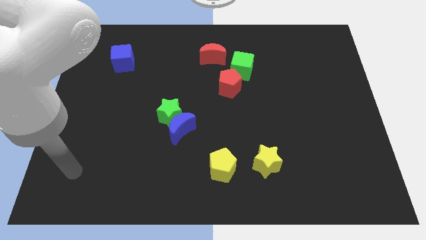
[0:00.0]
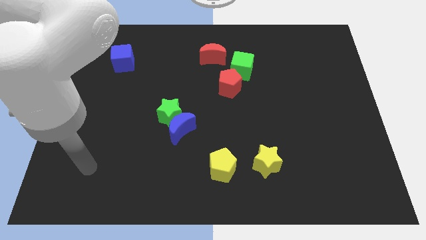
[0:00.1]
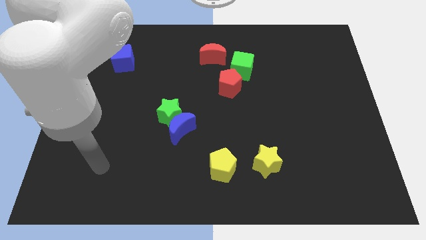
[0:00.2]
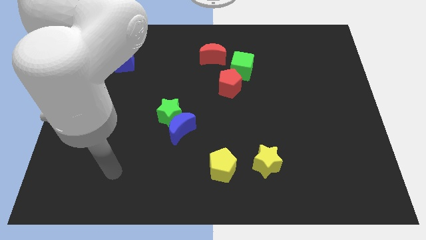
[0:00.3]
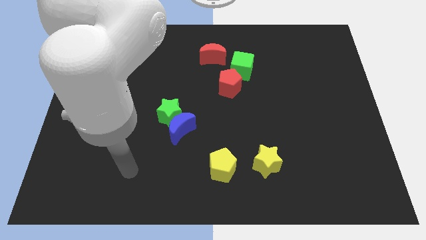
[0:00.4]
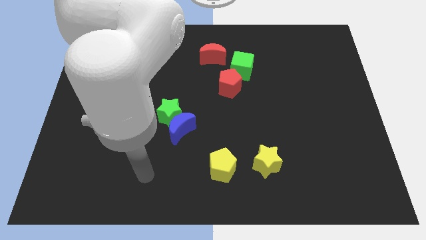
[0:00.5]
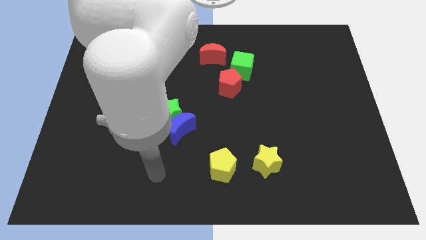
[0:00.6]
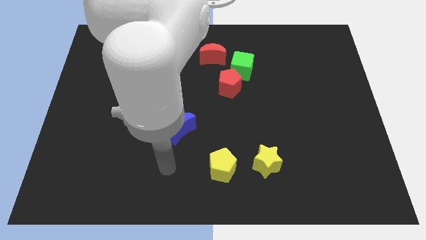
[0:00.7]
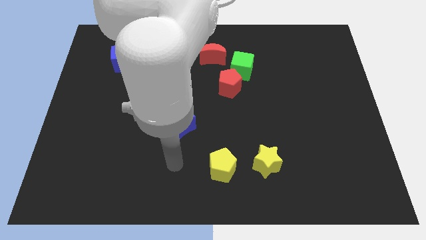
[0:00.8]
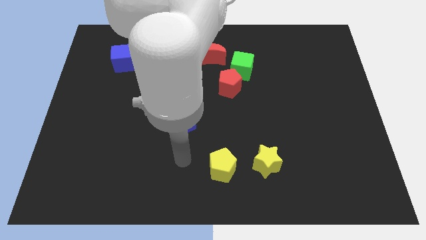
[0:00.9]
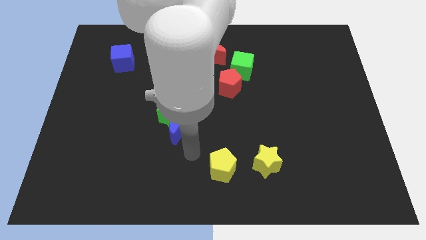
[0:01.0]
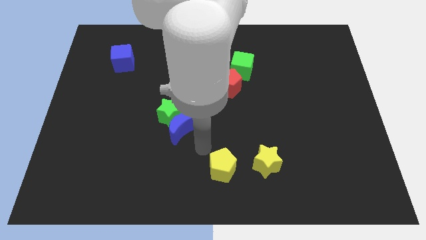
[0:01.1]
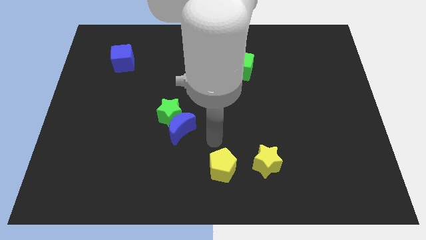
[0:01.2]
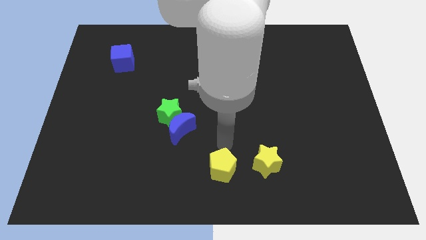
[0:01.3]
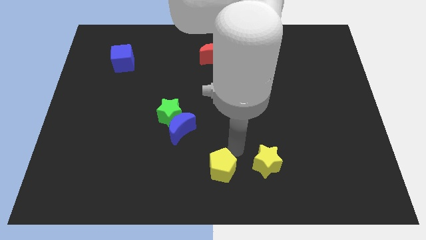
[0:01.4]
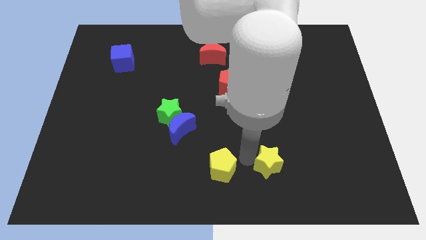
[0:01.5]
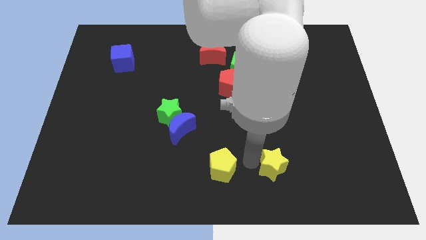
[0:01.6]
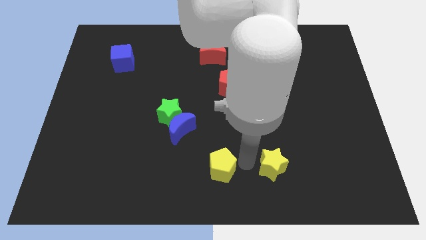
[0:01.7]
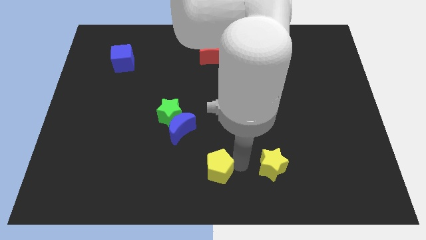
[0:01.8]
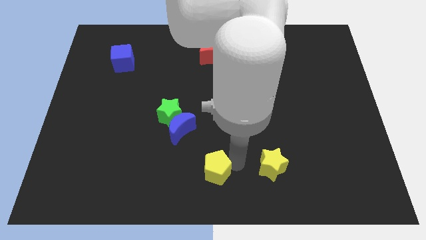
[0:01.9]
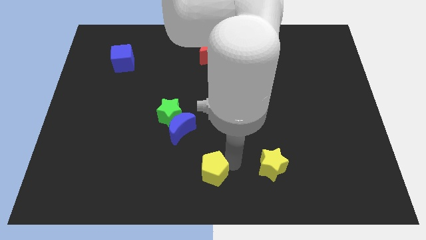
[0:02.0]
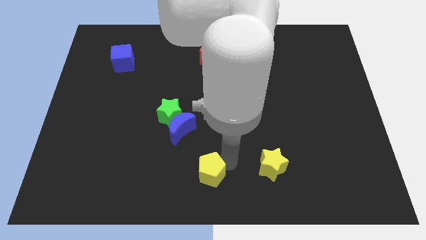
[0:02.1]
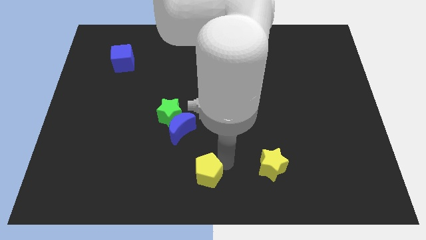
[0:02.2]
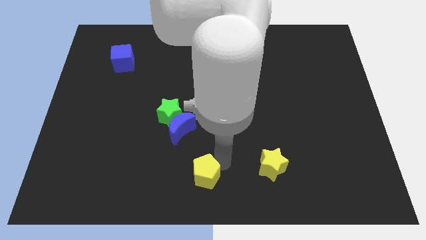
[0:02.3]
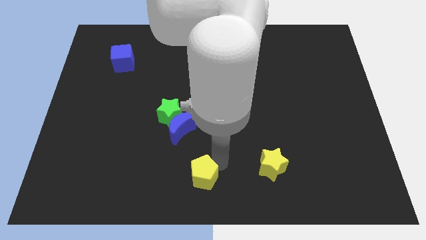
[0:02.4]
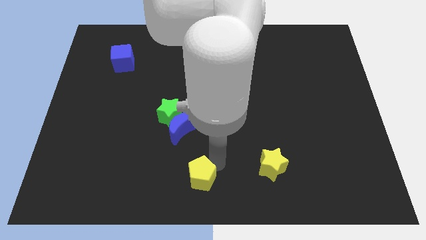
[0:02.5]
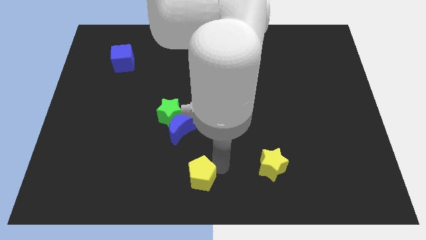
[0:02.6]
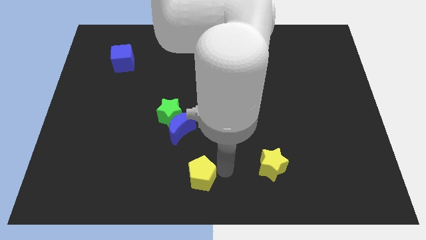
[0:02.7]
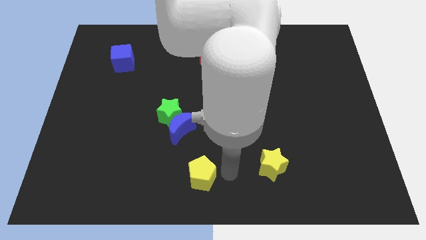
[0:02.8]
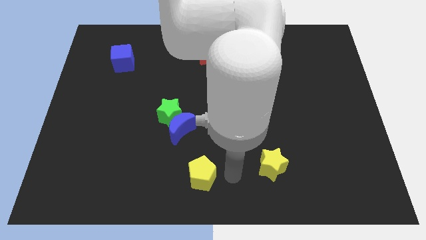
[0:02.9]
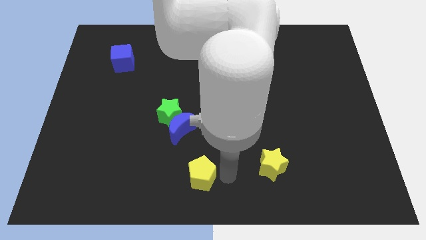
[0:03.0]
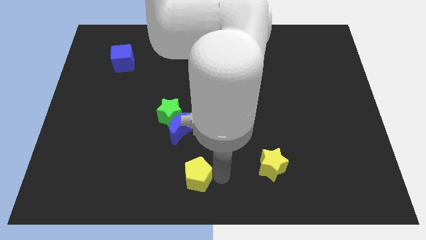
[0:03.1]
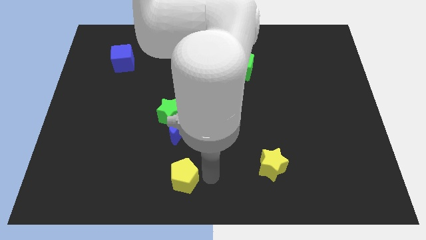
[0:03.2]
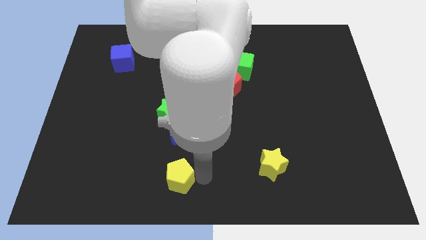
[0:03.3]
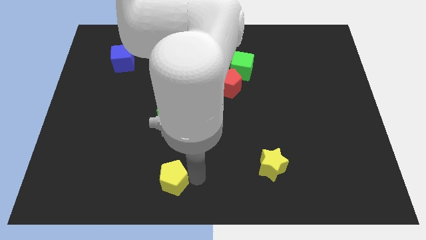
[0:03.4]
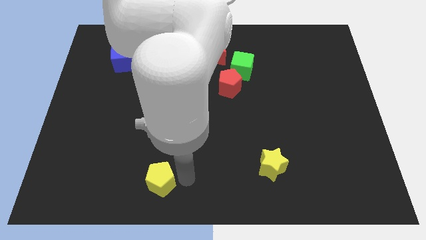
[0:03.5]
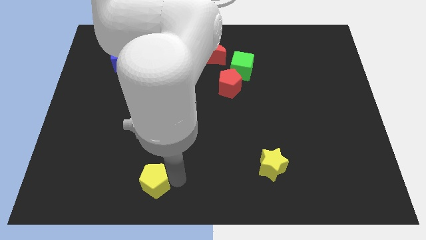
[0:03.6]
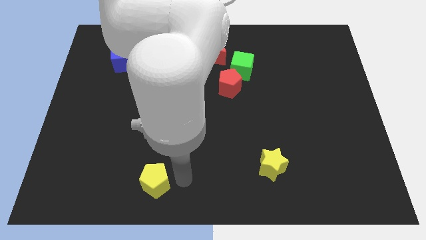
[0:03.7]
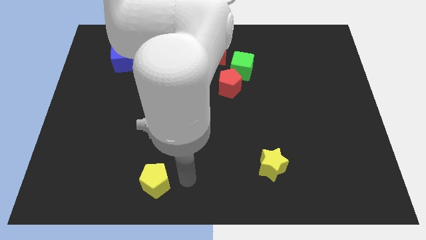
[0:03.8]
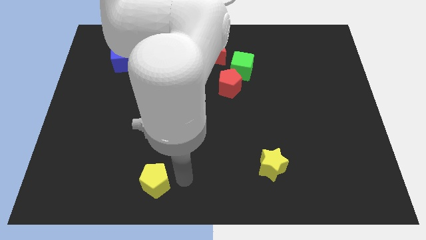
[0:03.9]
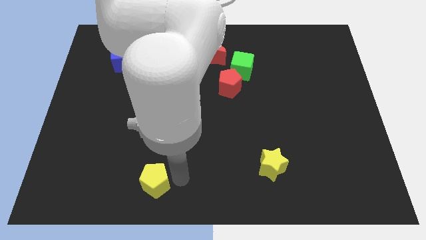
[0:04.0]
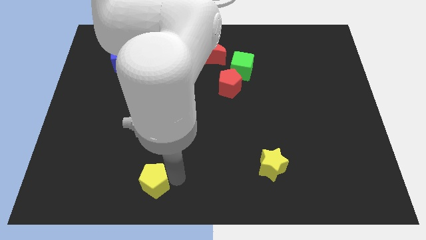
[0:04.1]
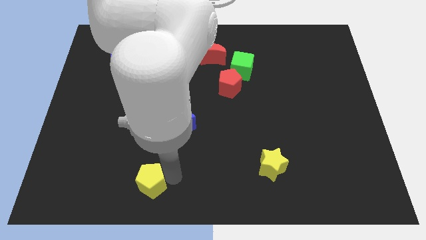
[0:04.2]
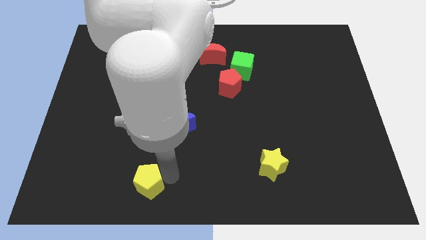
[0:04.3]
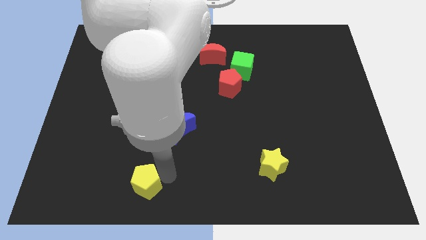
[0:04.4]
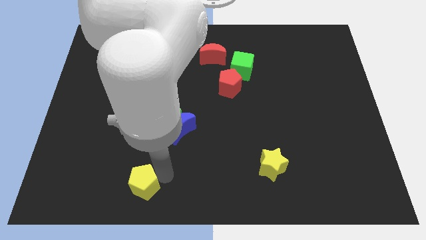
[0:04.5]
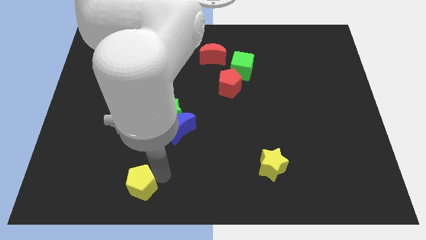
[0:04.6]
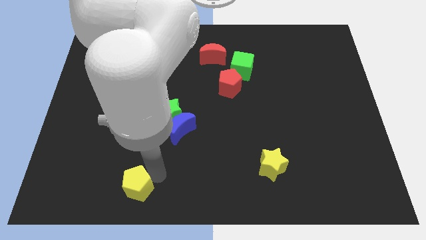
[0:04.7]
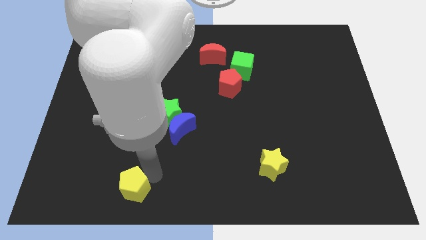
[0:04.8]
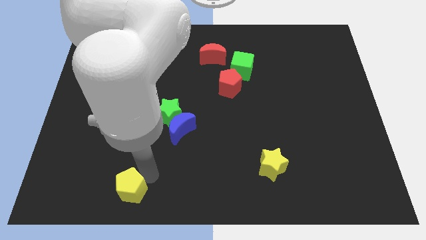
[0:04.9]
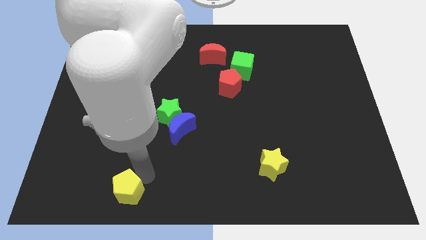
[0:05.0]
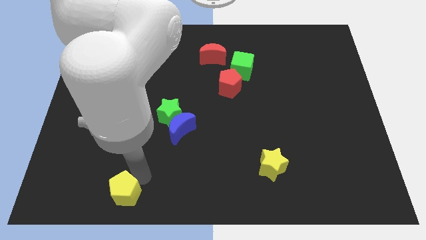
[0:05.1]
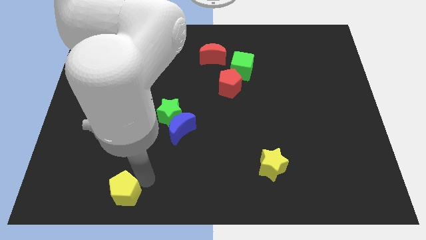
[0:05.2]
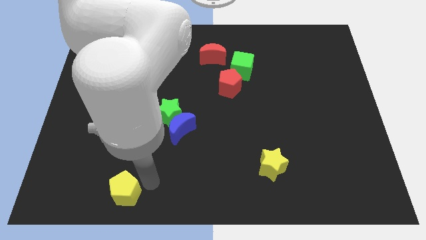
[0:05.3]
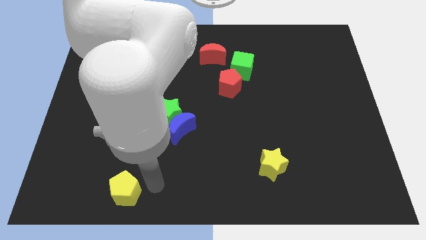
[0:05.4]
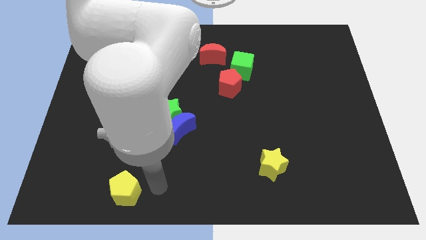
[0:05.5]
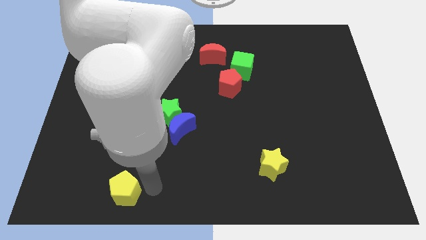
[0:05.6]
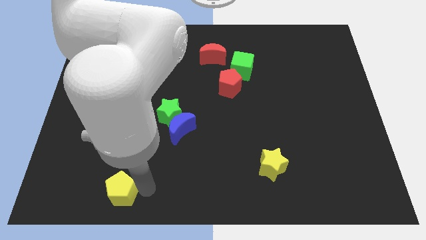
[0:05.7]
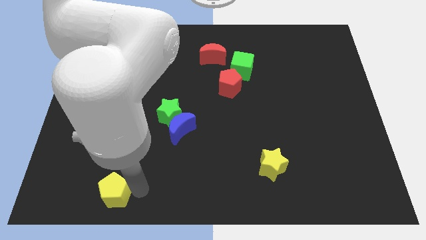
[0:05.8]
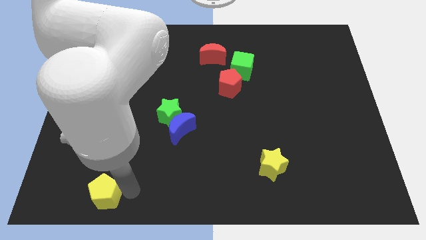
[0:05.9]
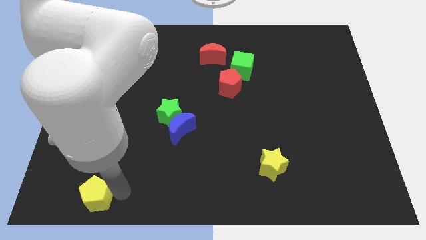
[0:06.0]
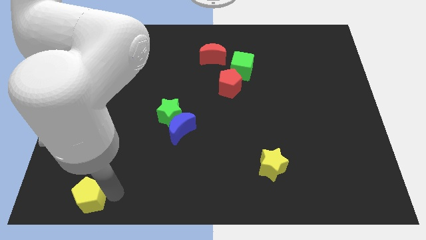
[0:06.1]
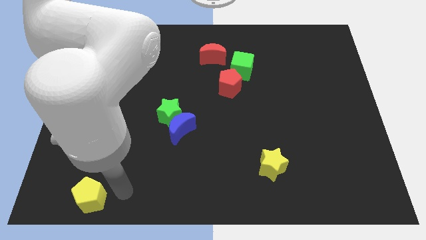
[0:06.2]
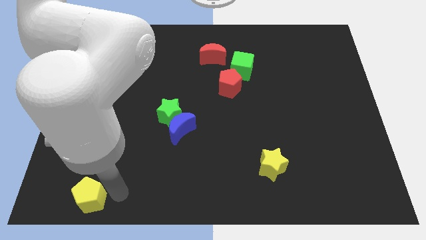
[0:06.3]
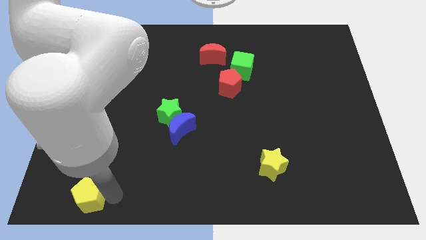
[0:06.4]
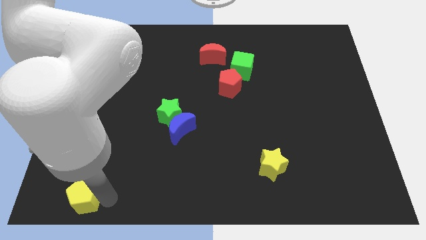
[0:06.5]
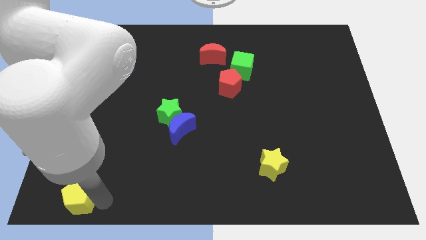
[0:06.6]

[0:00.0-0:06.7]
put the yellow pentagon to the lower left corner

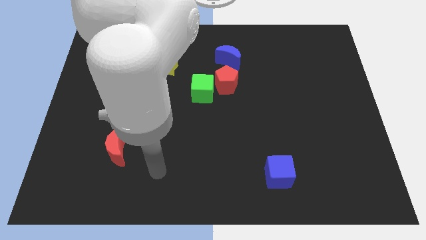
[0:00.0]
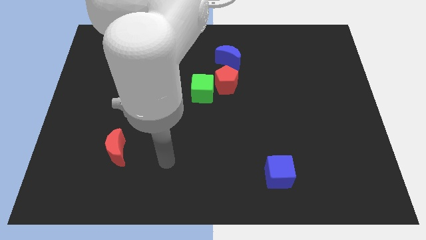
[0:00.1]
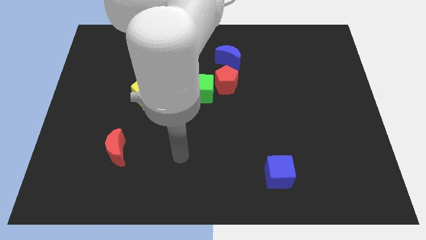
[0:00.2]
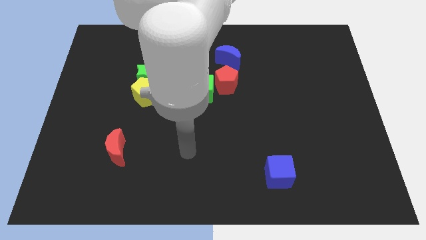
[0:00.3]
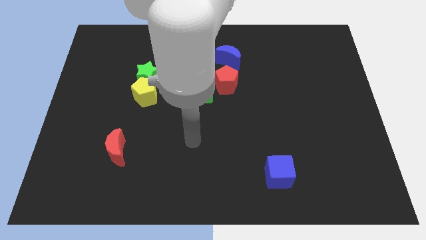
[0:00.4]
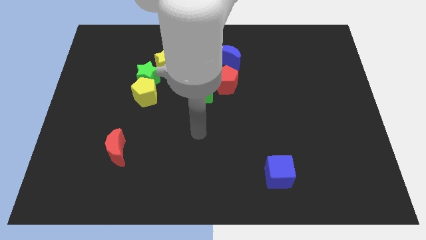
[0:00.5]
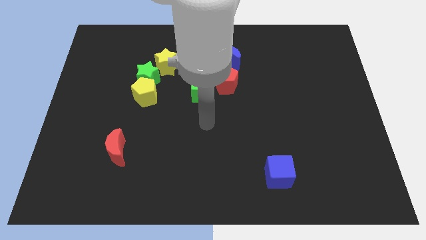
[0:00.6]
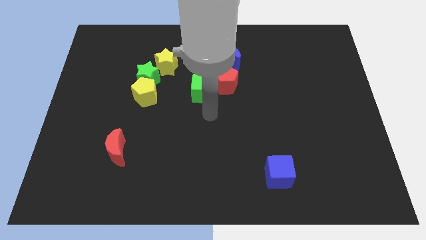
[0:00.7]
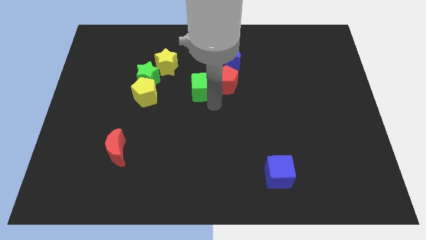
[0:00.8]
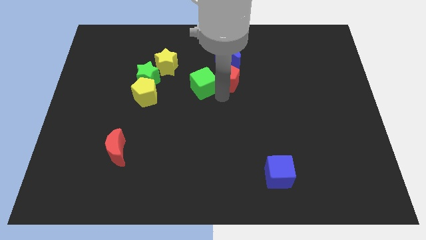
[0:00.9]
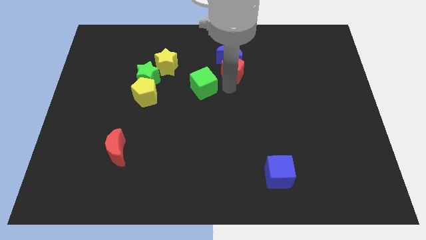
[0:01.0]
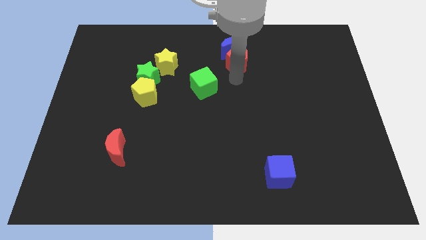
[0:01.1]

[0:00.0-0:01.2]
push the blue moon to the top side
